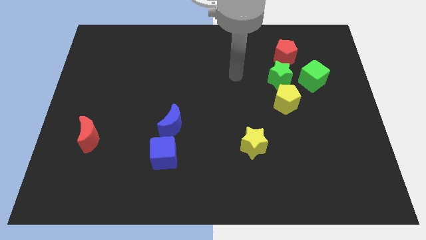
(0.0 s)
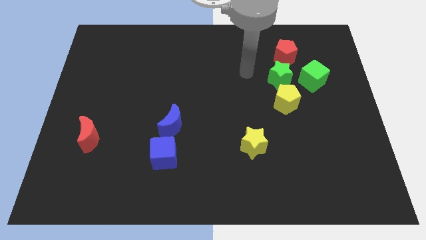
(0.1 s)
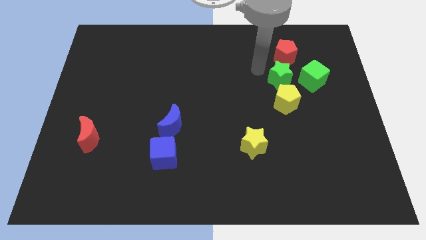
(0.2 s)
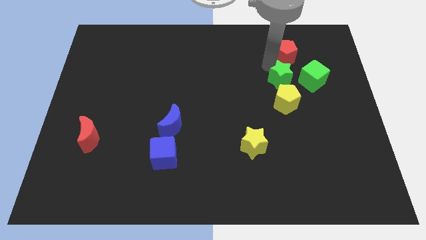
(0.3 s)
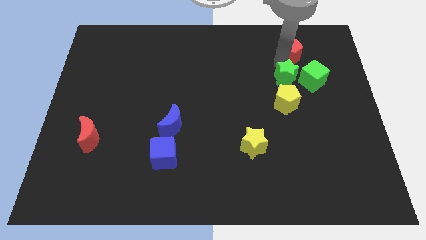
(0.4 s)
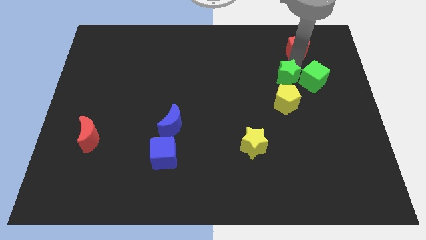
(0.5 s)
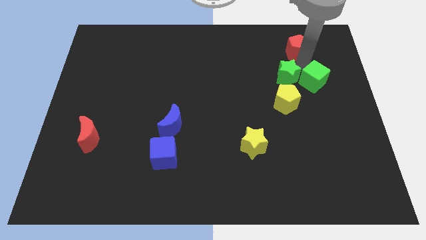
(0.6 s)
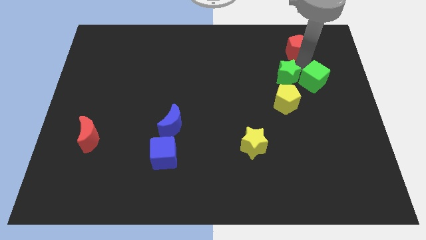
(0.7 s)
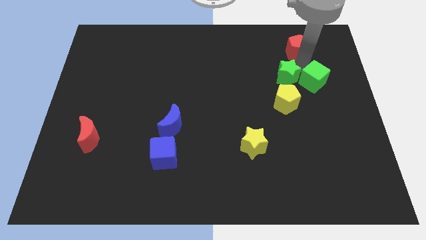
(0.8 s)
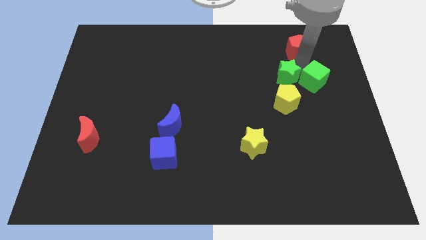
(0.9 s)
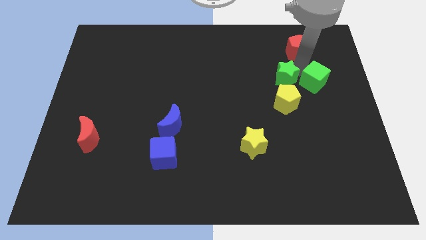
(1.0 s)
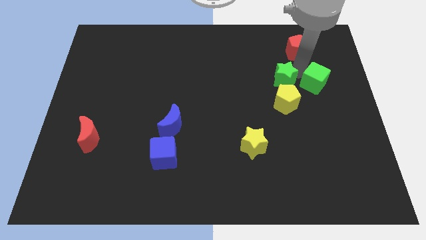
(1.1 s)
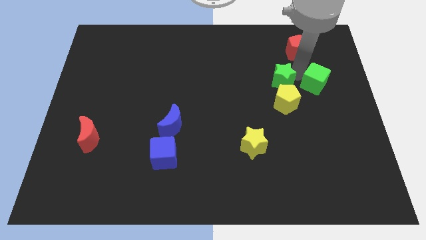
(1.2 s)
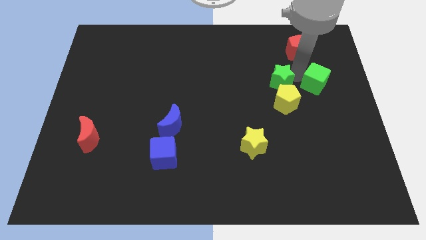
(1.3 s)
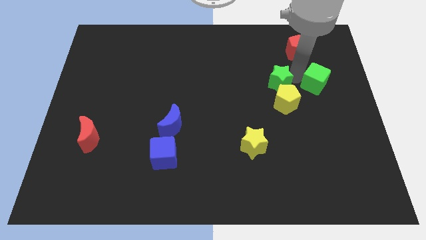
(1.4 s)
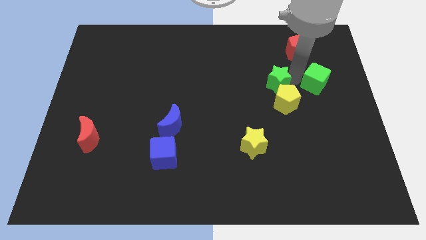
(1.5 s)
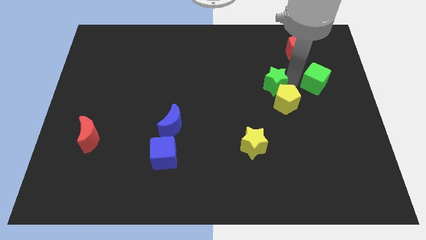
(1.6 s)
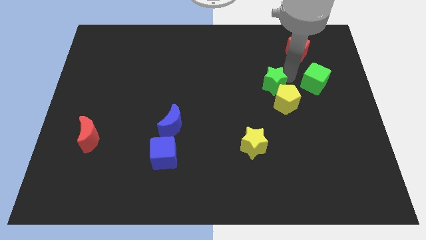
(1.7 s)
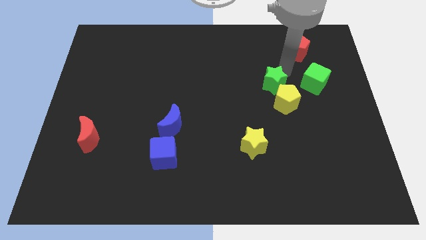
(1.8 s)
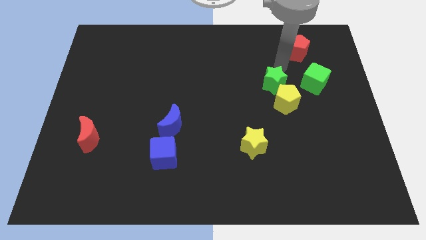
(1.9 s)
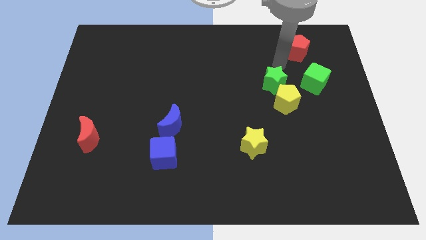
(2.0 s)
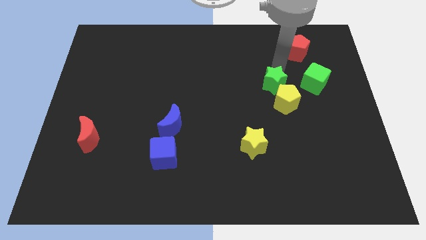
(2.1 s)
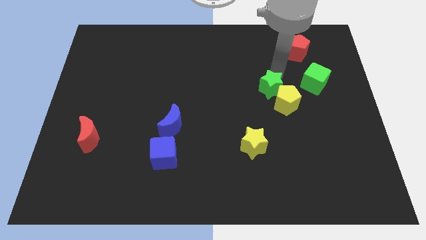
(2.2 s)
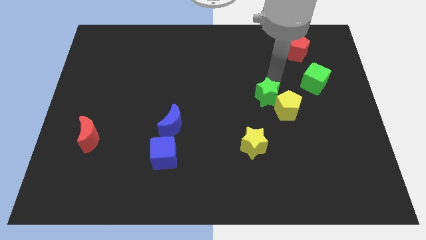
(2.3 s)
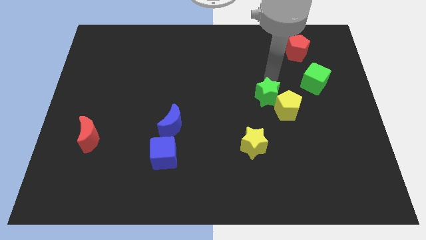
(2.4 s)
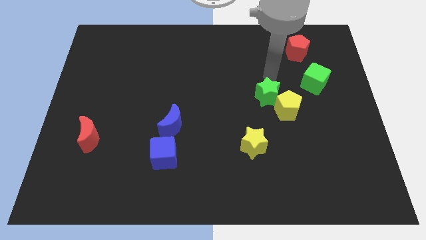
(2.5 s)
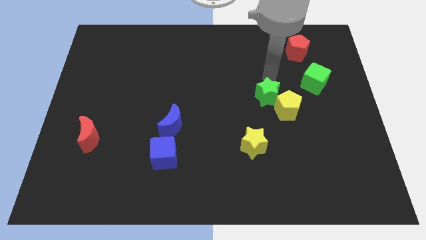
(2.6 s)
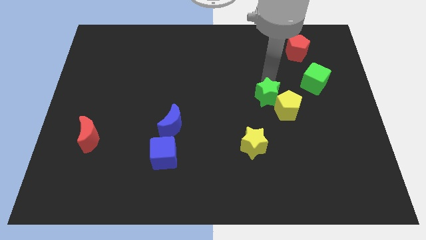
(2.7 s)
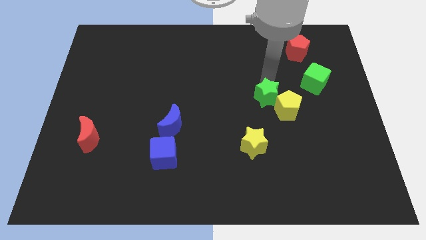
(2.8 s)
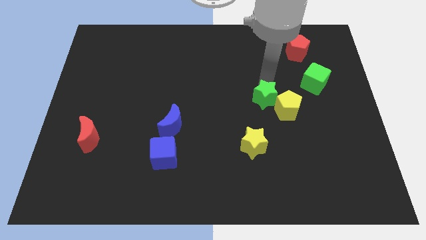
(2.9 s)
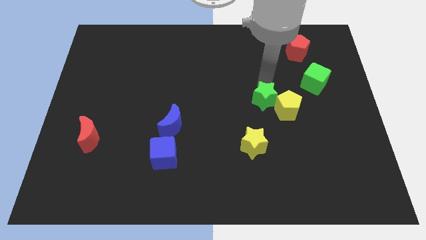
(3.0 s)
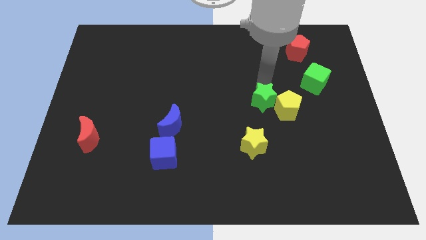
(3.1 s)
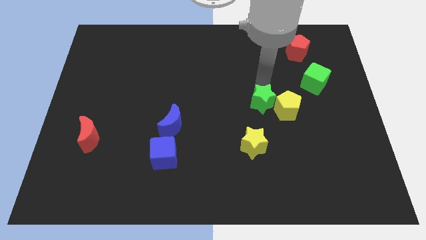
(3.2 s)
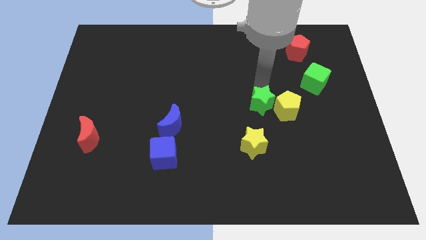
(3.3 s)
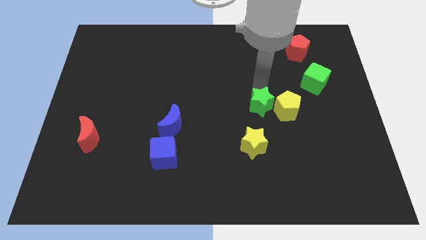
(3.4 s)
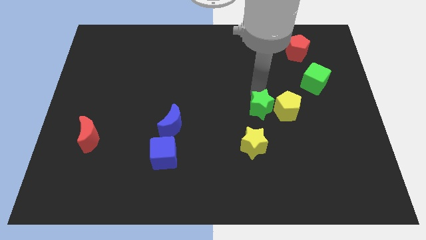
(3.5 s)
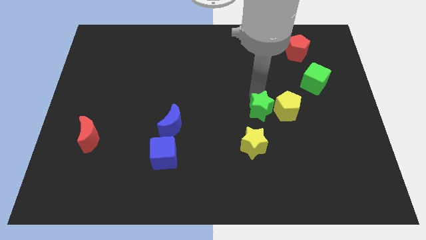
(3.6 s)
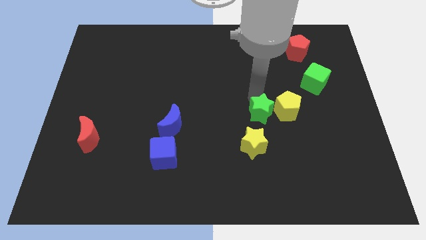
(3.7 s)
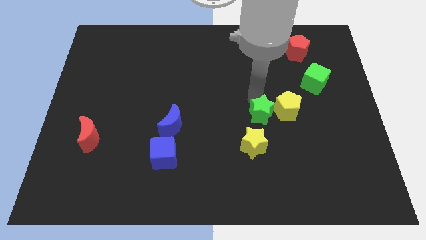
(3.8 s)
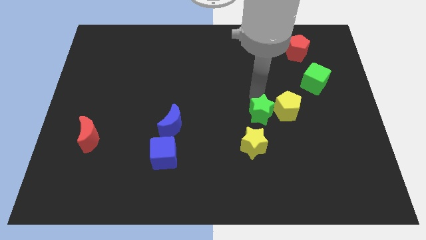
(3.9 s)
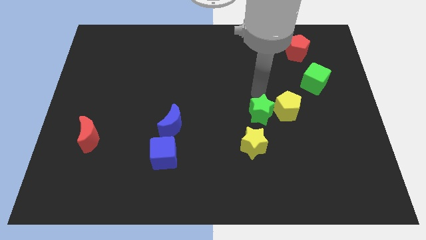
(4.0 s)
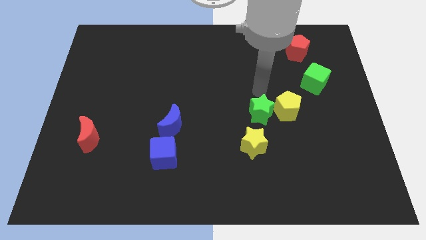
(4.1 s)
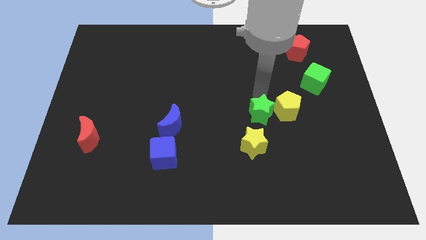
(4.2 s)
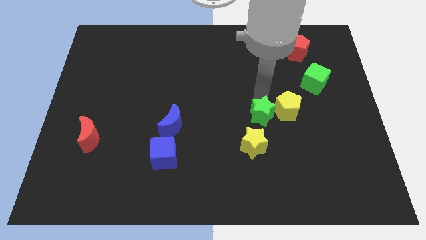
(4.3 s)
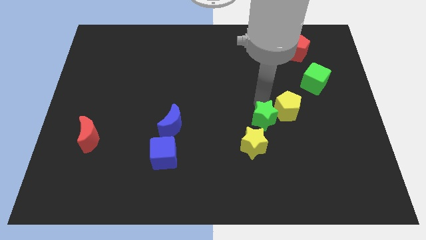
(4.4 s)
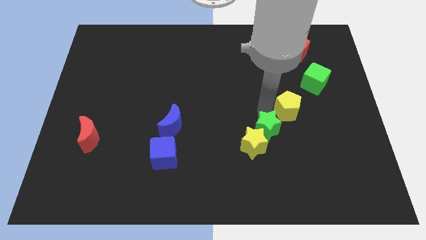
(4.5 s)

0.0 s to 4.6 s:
put the green star close to the yellow star

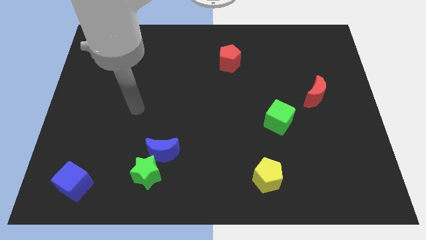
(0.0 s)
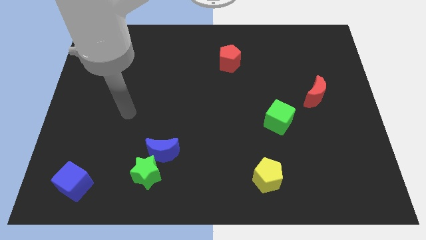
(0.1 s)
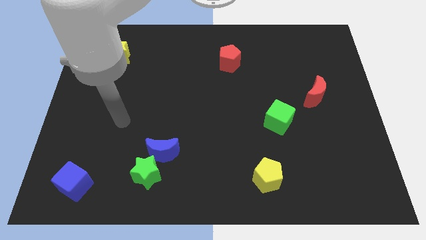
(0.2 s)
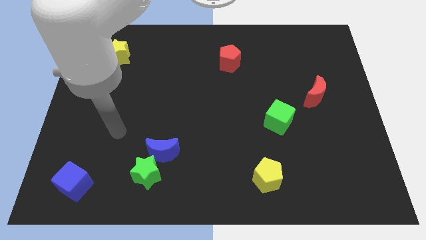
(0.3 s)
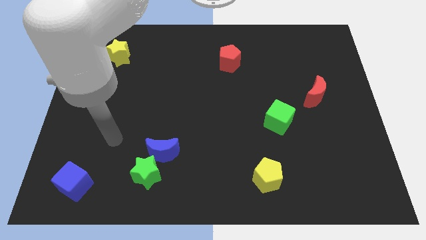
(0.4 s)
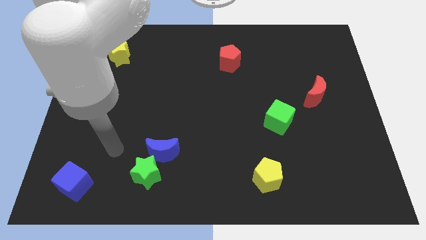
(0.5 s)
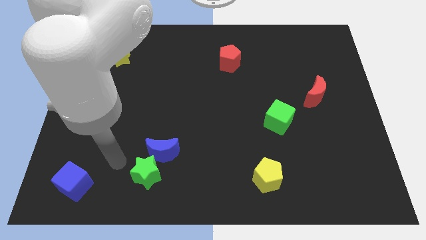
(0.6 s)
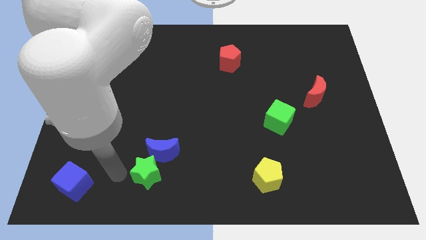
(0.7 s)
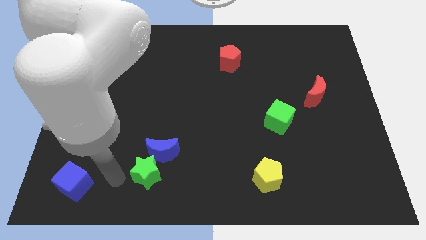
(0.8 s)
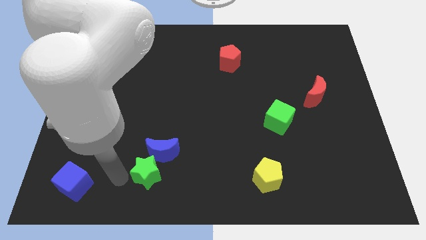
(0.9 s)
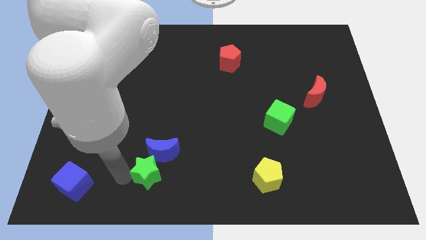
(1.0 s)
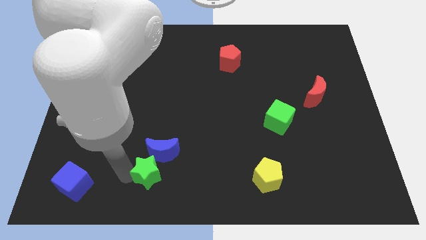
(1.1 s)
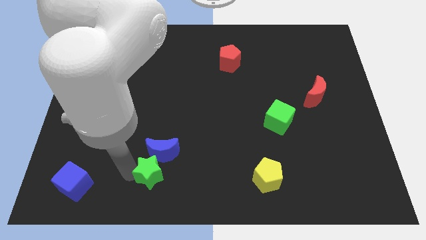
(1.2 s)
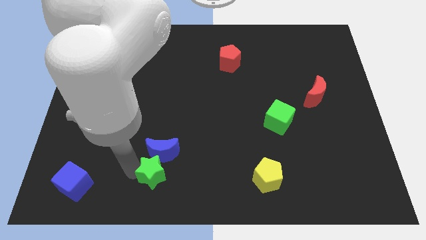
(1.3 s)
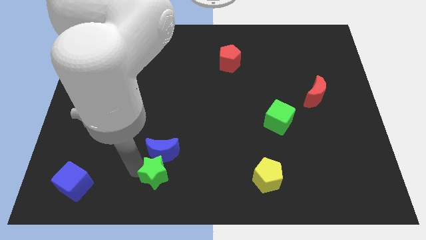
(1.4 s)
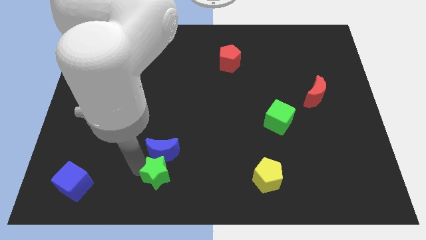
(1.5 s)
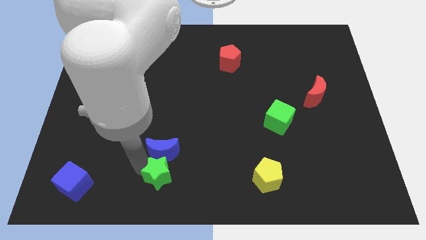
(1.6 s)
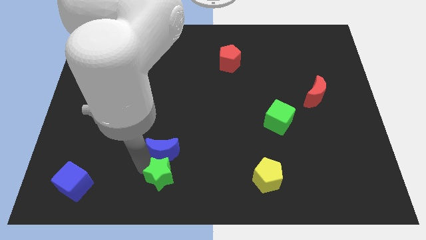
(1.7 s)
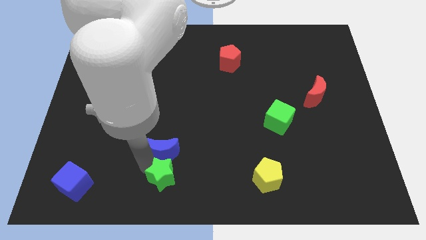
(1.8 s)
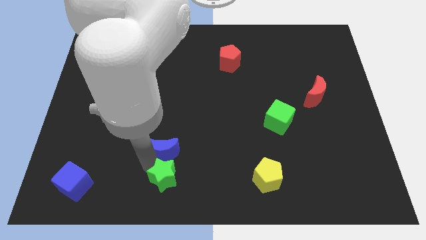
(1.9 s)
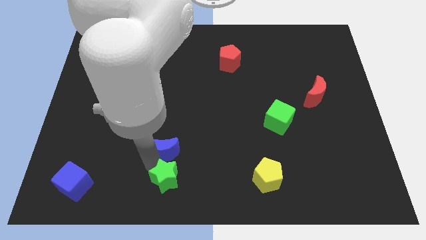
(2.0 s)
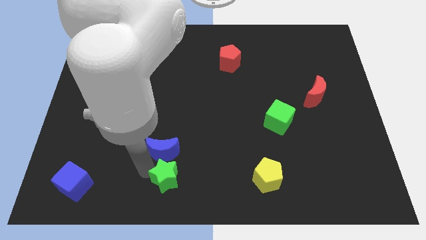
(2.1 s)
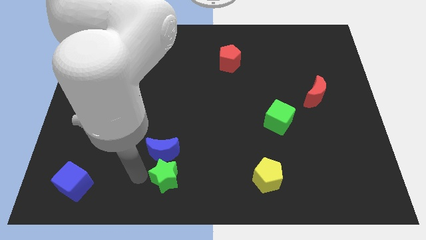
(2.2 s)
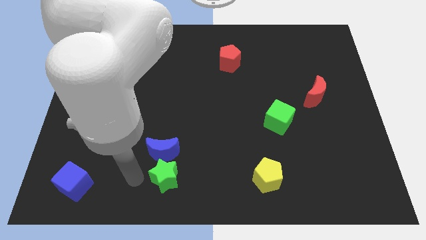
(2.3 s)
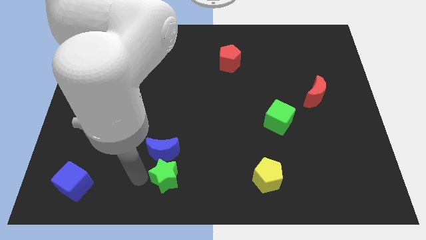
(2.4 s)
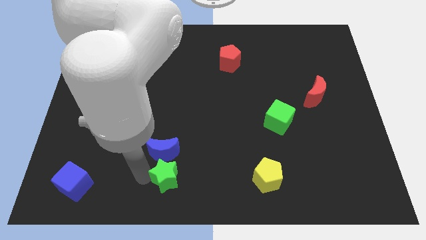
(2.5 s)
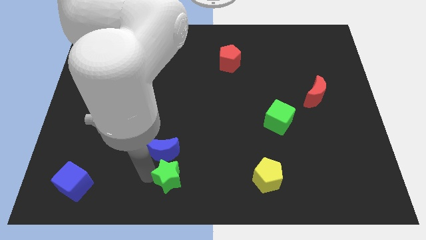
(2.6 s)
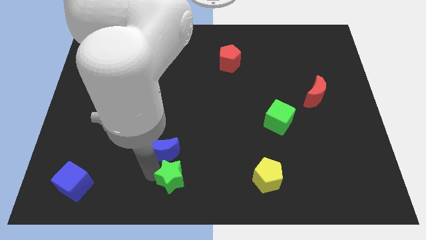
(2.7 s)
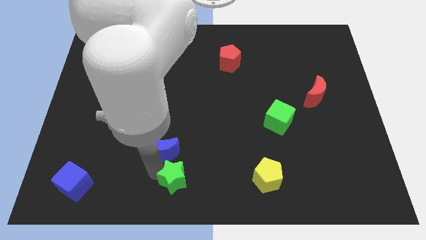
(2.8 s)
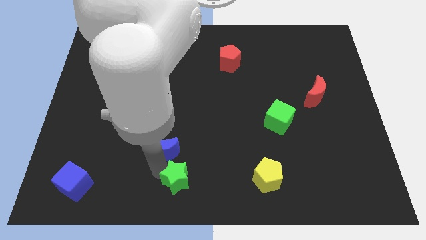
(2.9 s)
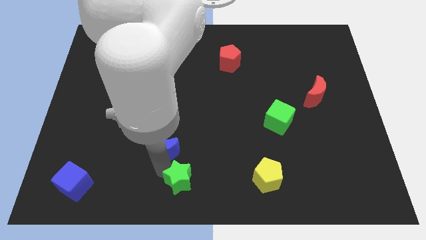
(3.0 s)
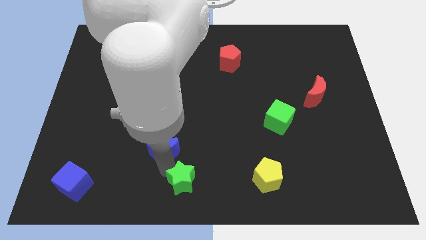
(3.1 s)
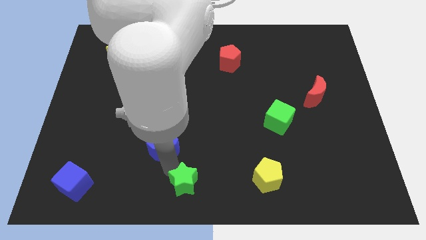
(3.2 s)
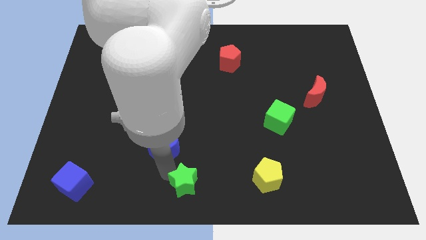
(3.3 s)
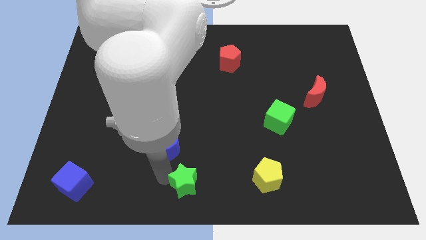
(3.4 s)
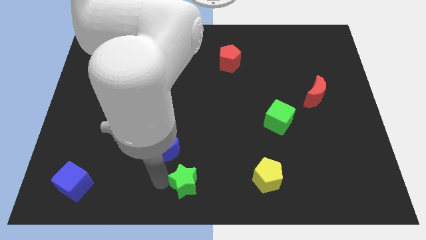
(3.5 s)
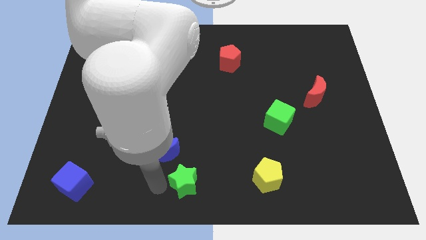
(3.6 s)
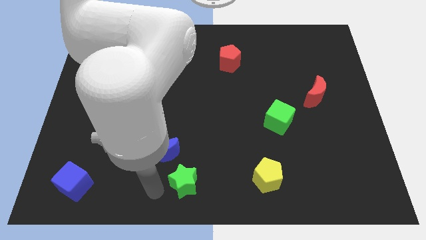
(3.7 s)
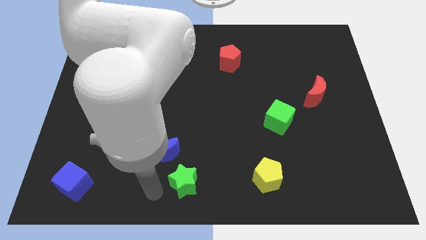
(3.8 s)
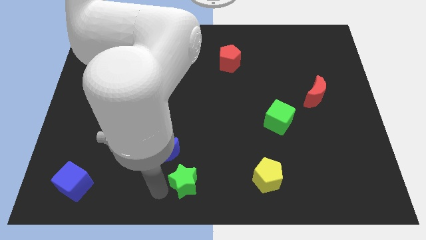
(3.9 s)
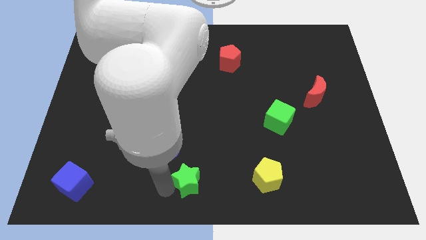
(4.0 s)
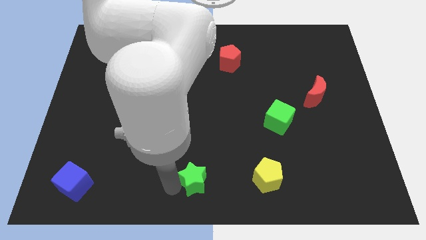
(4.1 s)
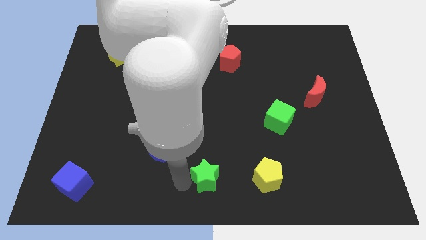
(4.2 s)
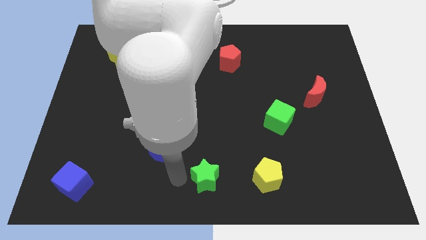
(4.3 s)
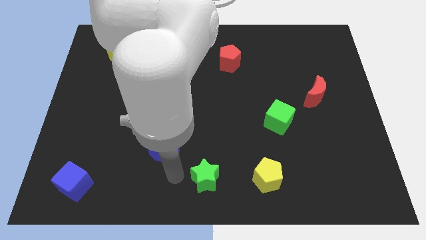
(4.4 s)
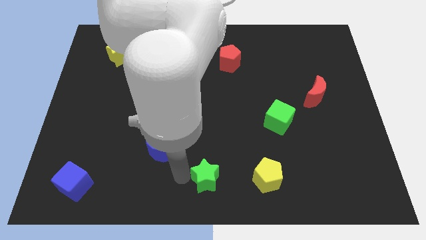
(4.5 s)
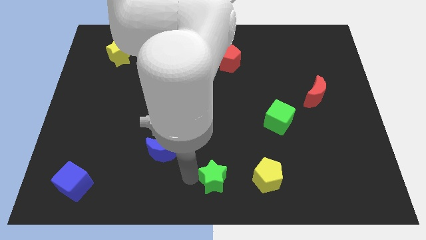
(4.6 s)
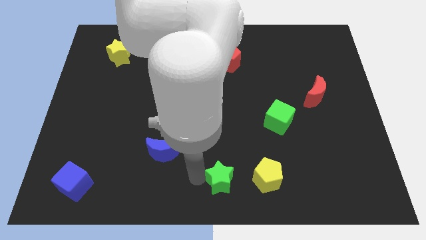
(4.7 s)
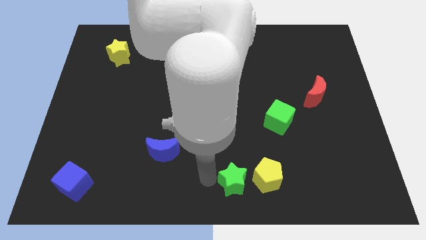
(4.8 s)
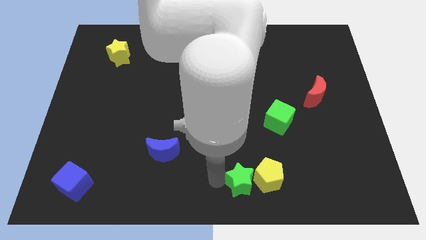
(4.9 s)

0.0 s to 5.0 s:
put the green star next to the yellow pentagon
